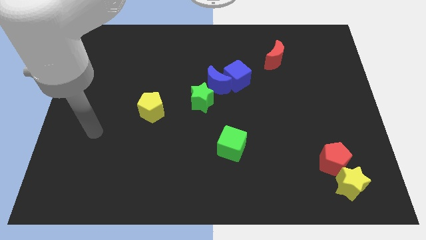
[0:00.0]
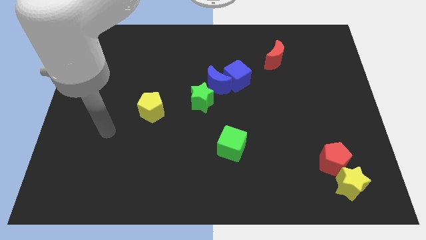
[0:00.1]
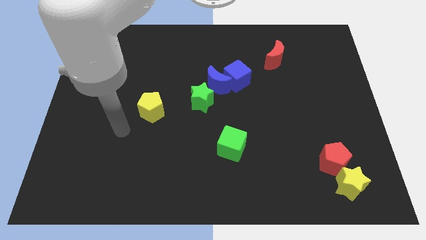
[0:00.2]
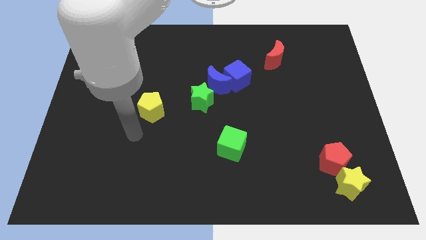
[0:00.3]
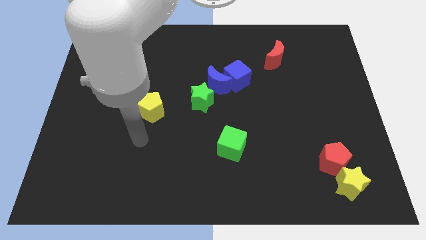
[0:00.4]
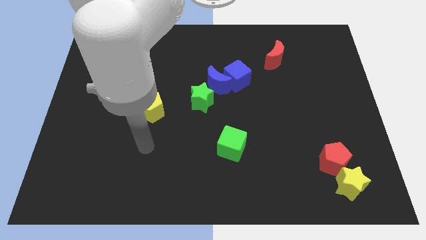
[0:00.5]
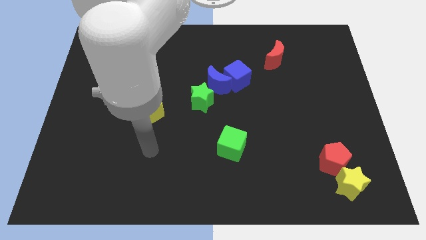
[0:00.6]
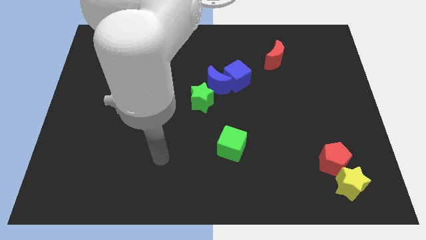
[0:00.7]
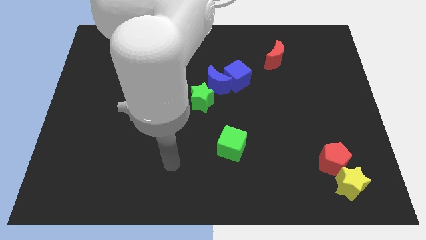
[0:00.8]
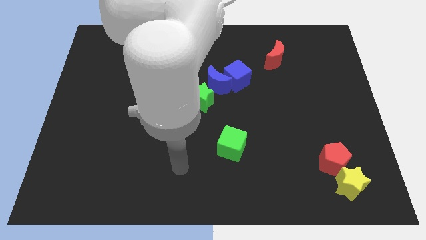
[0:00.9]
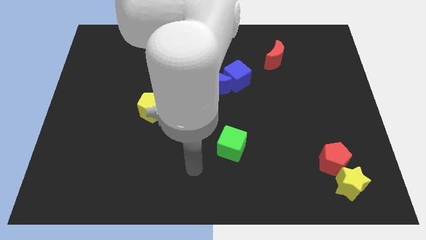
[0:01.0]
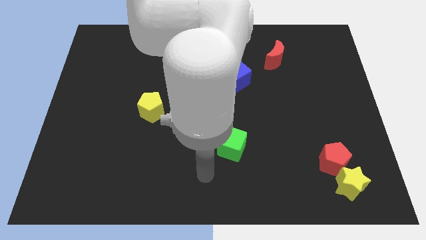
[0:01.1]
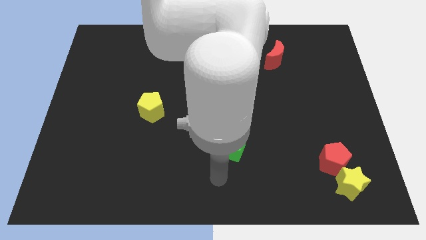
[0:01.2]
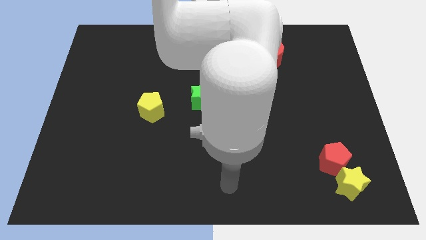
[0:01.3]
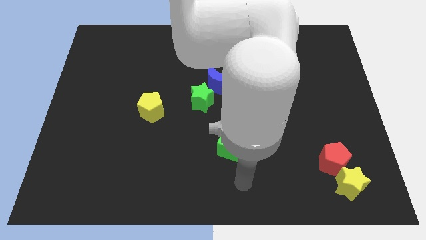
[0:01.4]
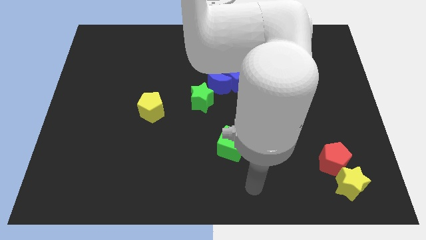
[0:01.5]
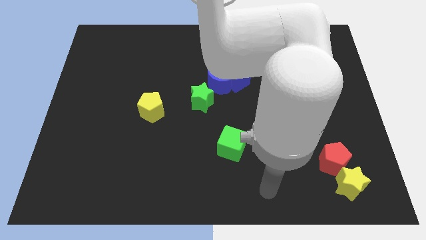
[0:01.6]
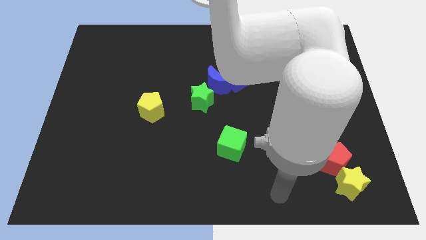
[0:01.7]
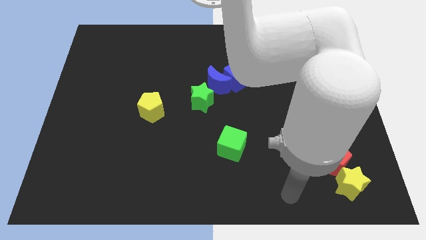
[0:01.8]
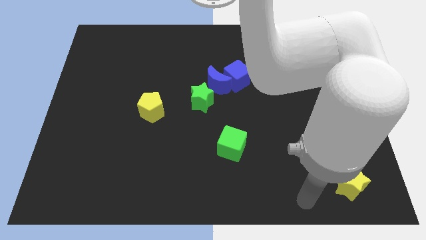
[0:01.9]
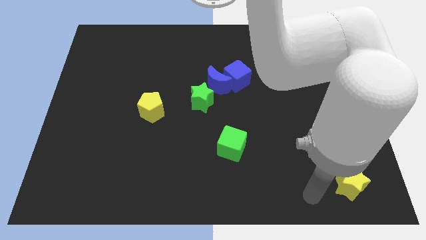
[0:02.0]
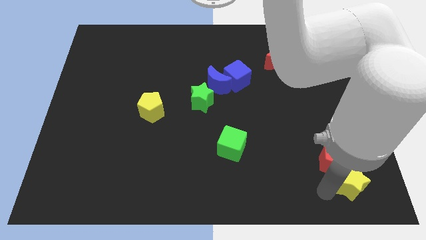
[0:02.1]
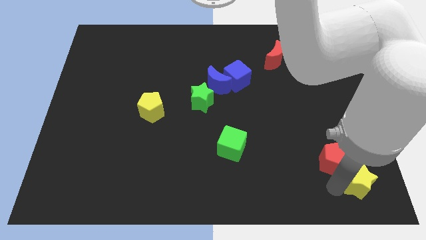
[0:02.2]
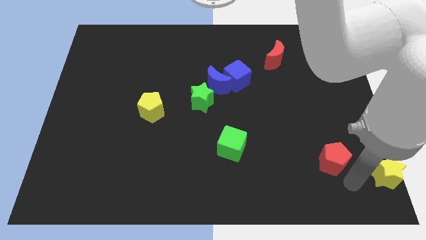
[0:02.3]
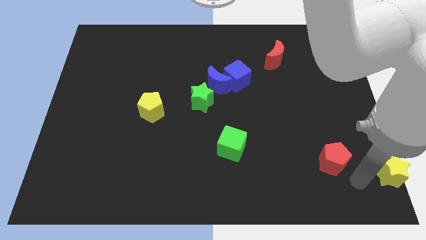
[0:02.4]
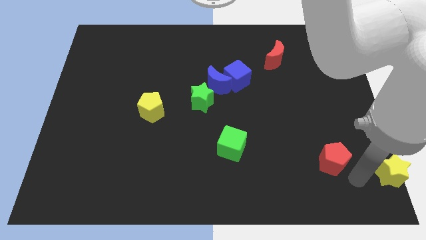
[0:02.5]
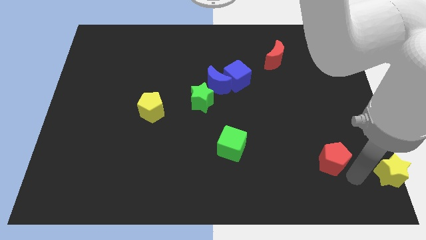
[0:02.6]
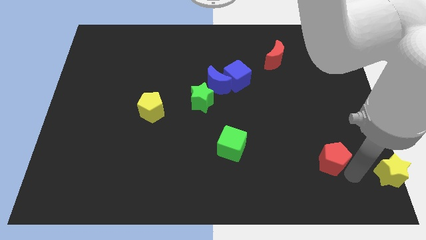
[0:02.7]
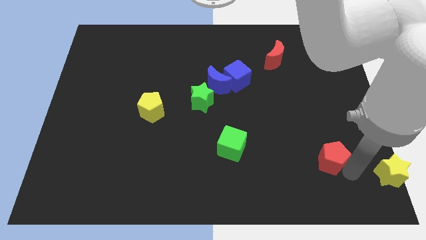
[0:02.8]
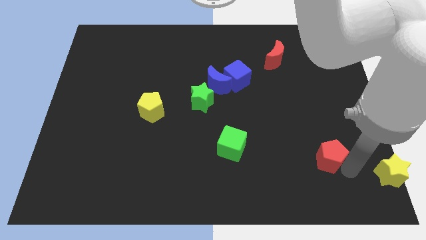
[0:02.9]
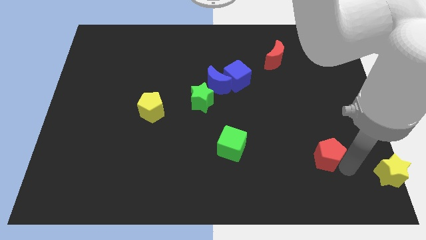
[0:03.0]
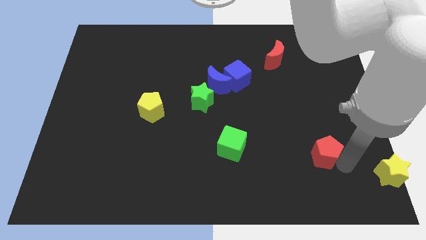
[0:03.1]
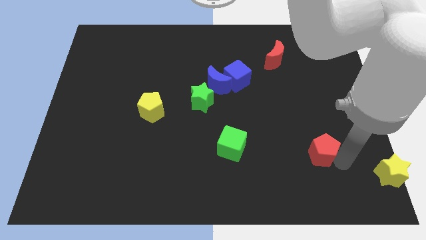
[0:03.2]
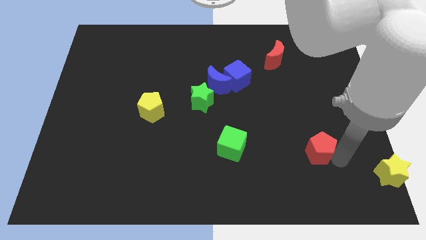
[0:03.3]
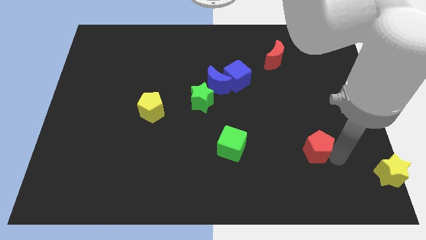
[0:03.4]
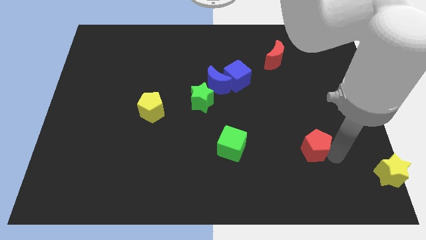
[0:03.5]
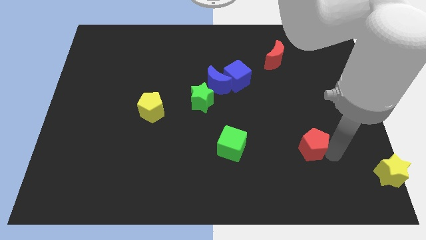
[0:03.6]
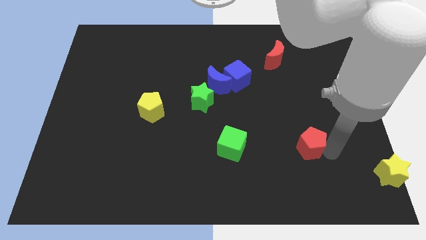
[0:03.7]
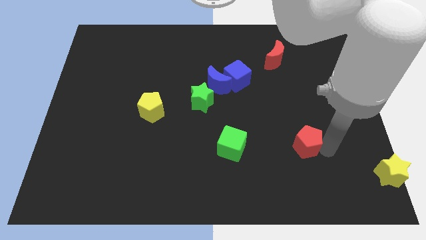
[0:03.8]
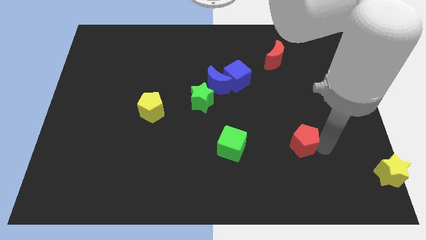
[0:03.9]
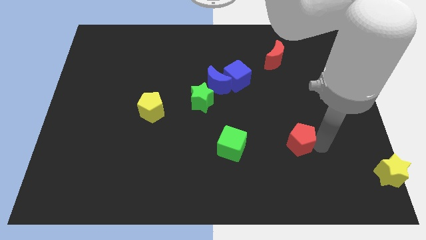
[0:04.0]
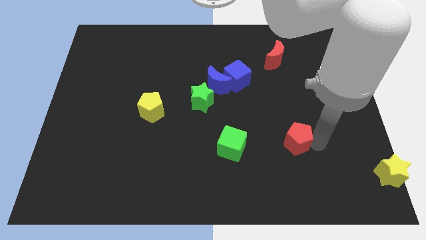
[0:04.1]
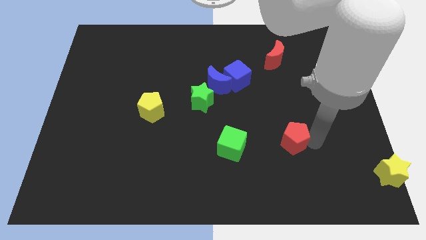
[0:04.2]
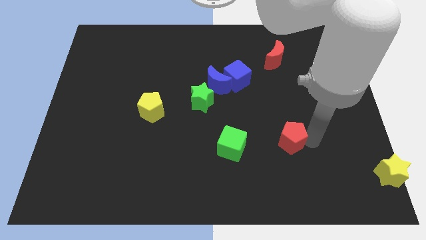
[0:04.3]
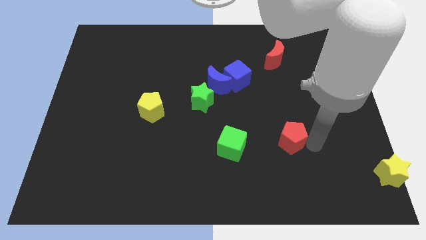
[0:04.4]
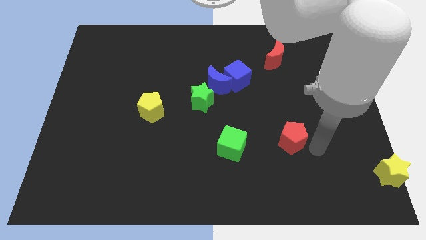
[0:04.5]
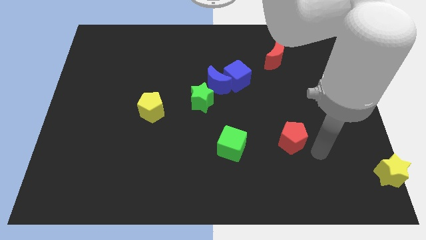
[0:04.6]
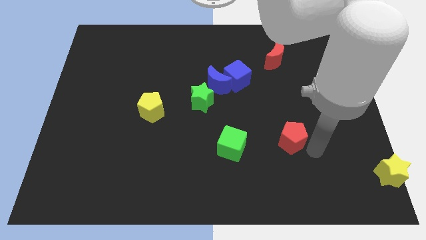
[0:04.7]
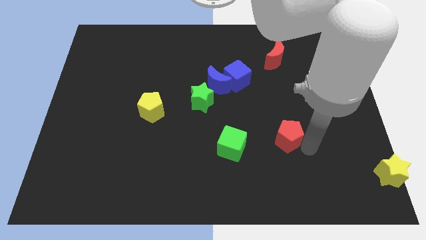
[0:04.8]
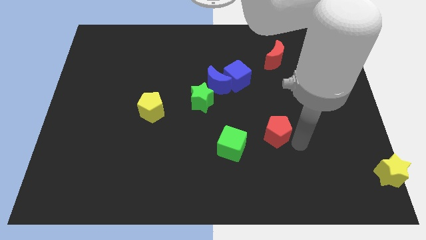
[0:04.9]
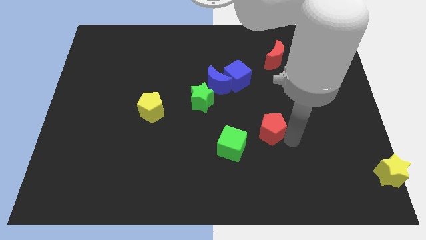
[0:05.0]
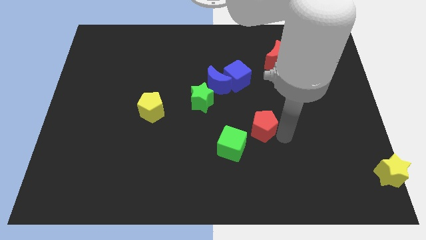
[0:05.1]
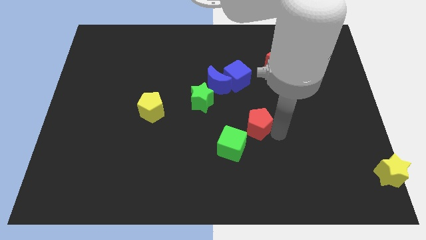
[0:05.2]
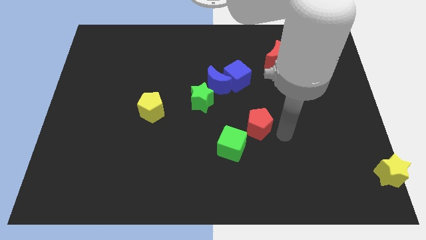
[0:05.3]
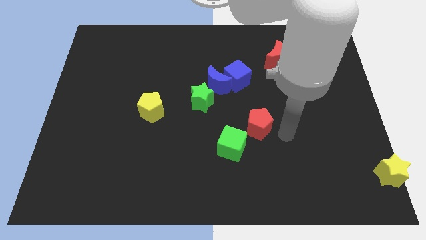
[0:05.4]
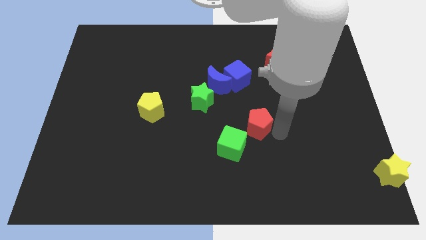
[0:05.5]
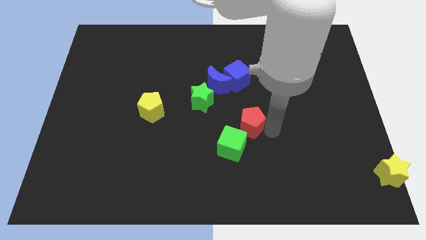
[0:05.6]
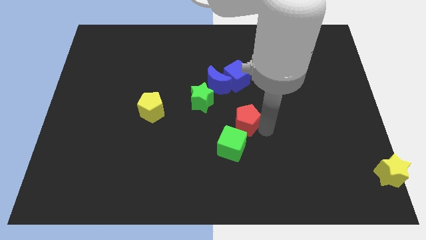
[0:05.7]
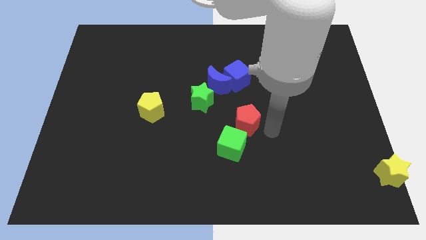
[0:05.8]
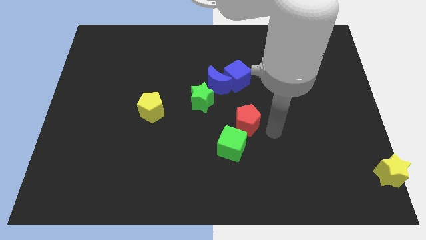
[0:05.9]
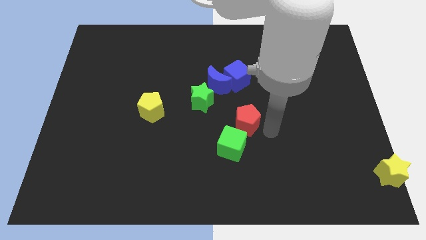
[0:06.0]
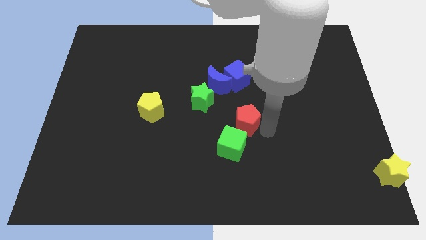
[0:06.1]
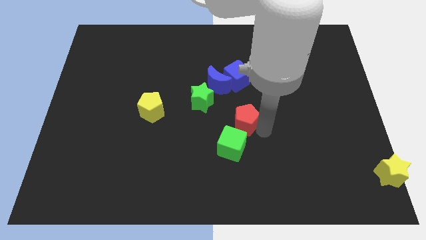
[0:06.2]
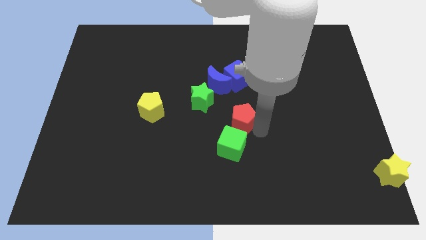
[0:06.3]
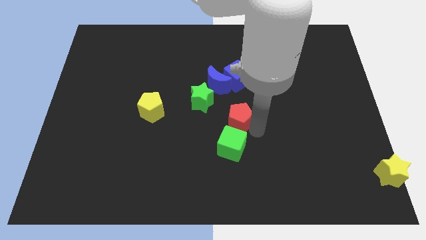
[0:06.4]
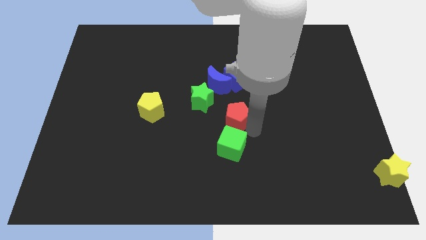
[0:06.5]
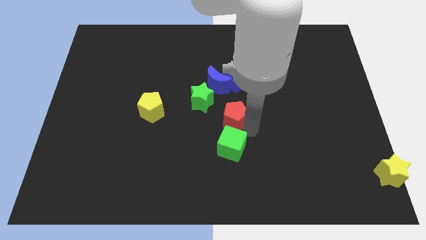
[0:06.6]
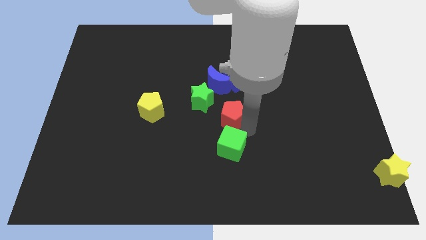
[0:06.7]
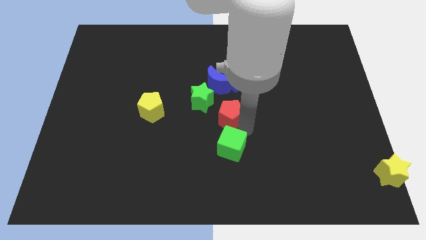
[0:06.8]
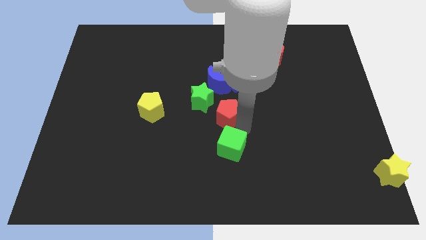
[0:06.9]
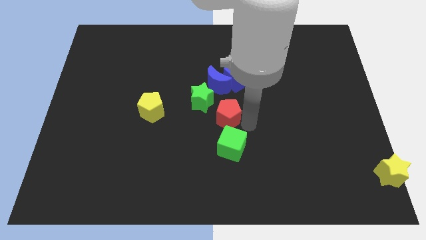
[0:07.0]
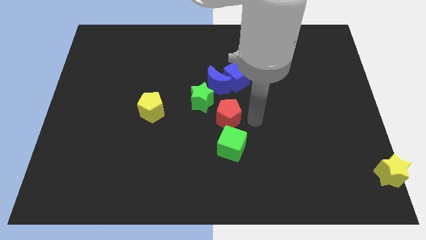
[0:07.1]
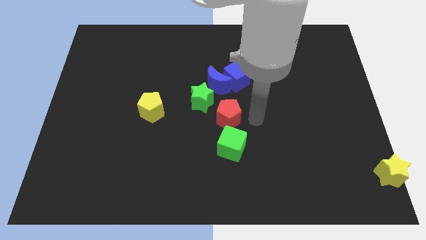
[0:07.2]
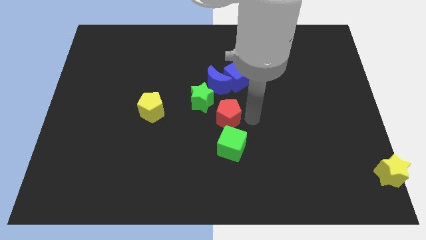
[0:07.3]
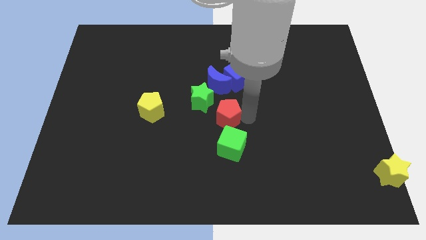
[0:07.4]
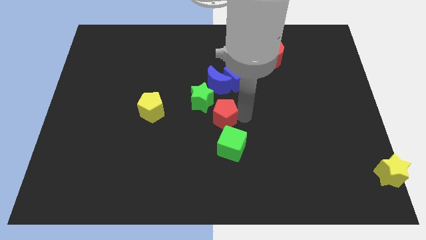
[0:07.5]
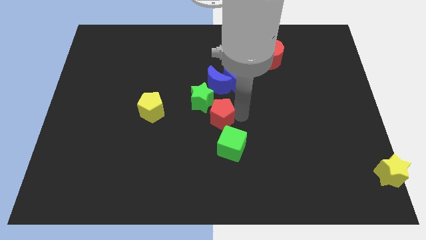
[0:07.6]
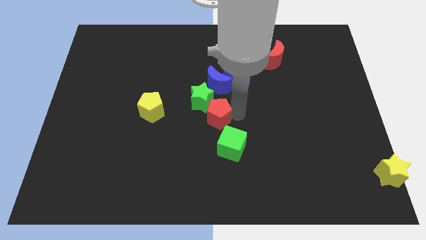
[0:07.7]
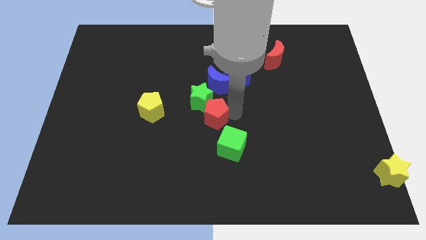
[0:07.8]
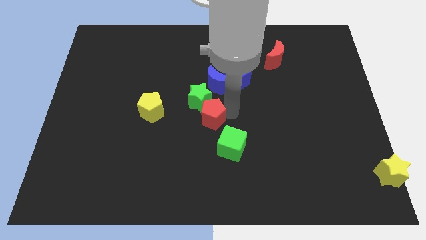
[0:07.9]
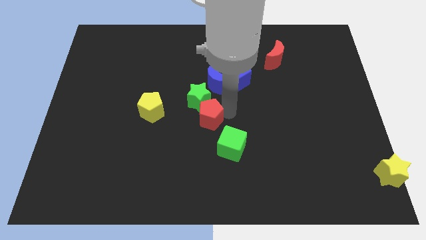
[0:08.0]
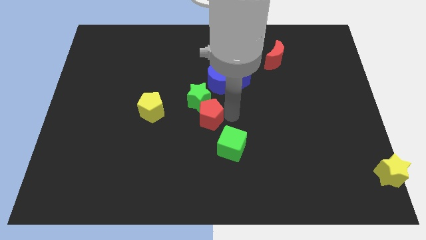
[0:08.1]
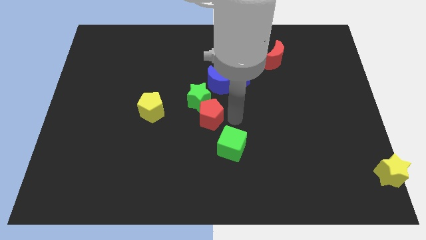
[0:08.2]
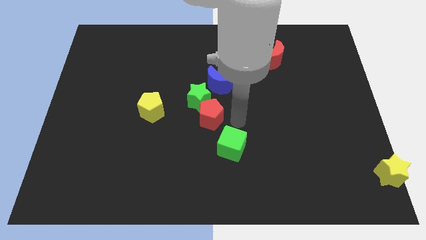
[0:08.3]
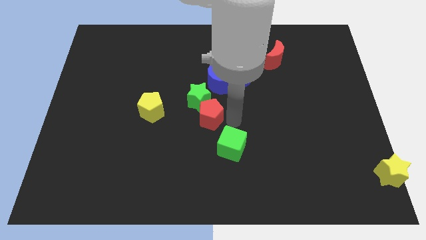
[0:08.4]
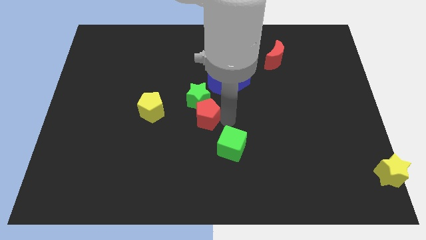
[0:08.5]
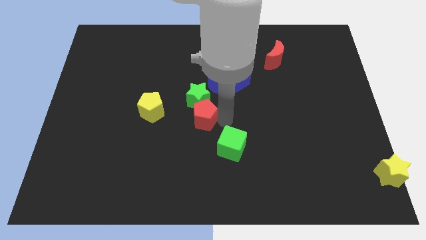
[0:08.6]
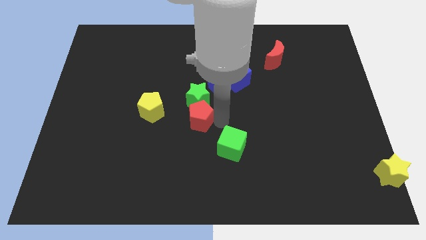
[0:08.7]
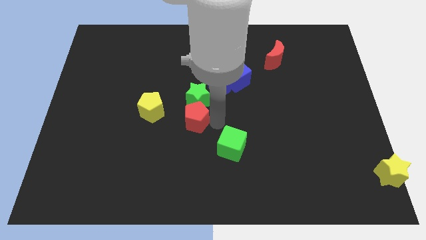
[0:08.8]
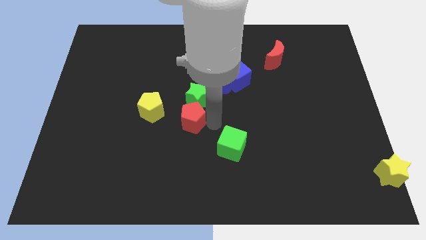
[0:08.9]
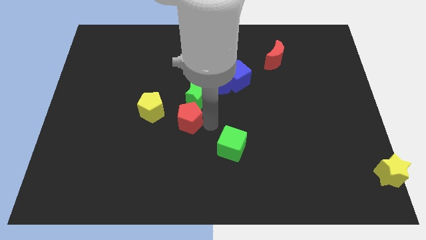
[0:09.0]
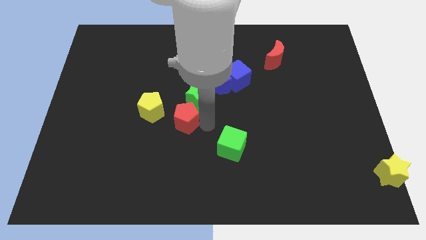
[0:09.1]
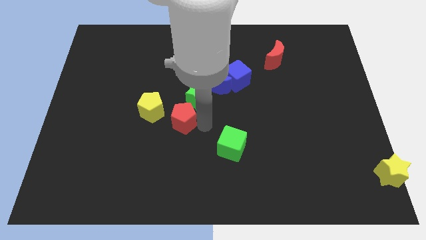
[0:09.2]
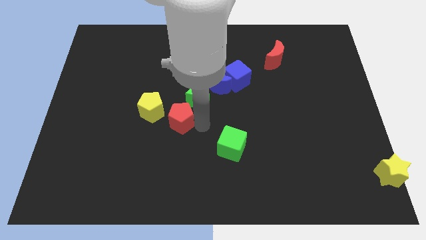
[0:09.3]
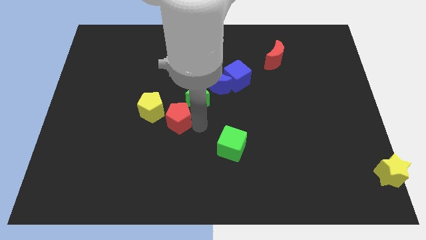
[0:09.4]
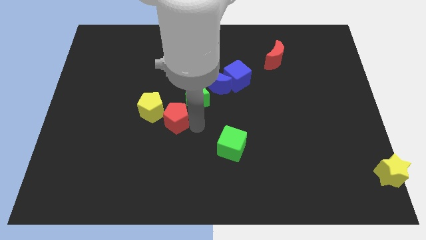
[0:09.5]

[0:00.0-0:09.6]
push the red pentagon towards the yellow pentagon
